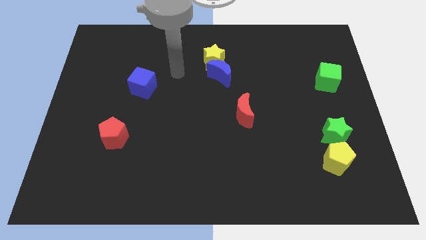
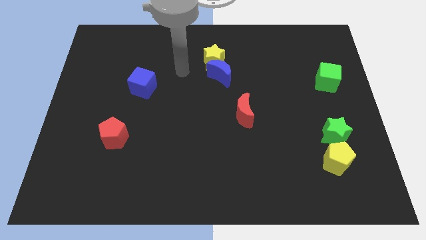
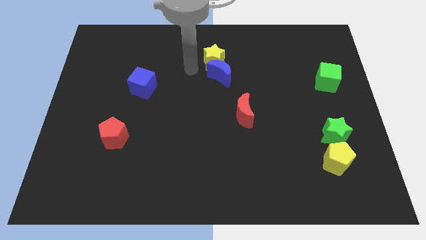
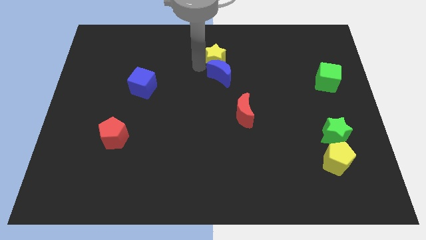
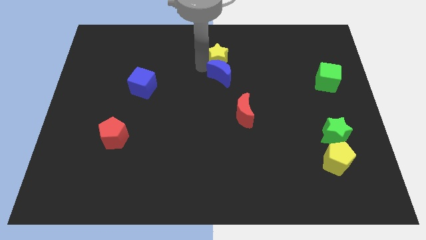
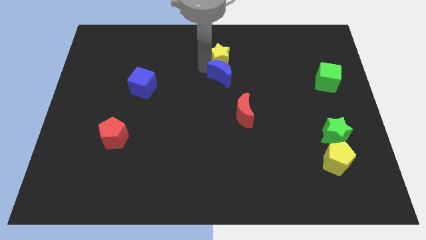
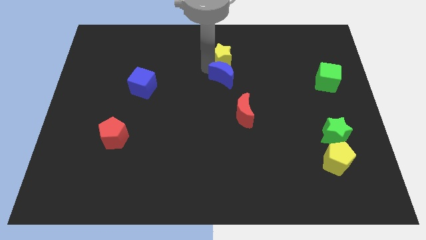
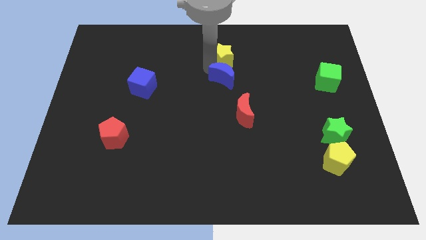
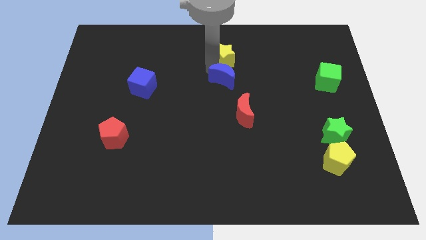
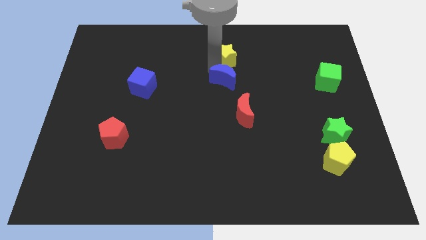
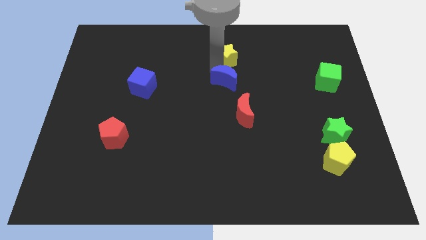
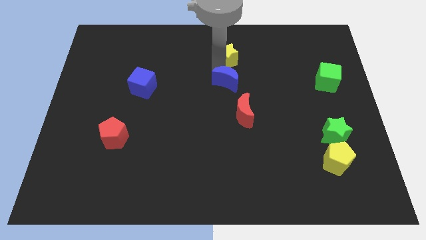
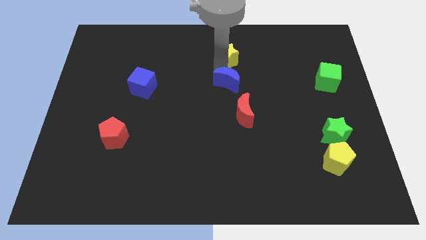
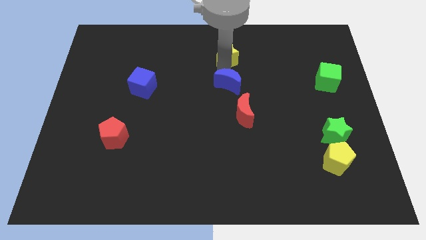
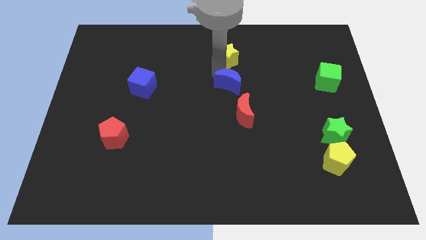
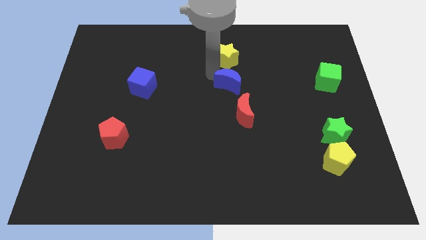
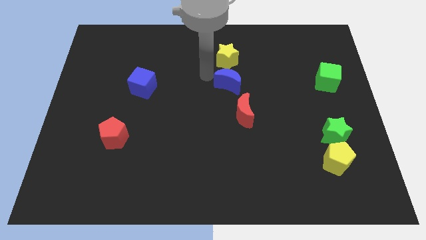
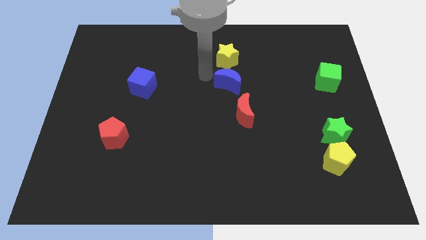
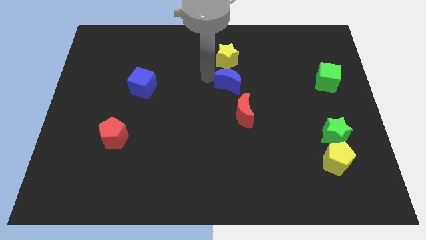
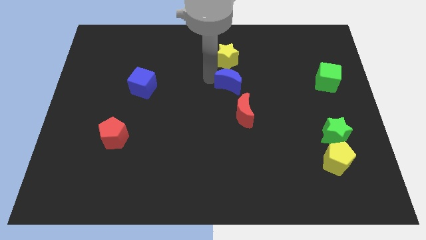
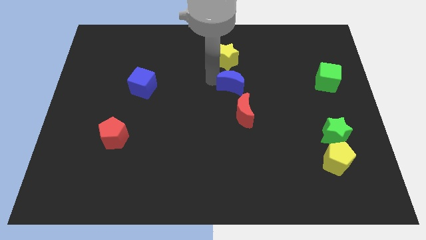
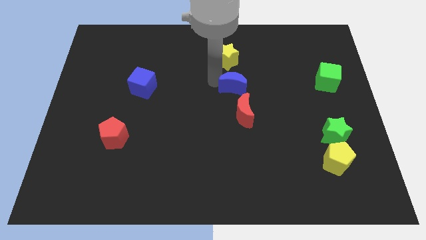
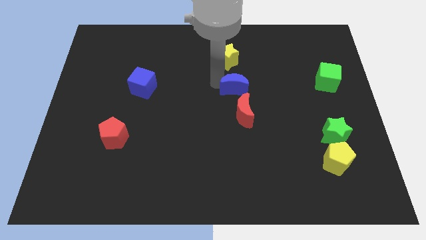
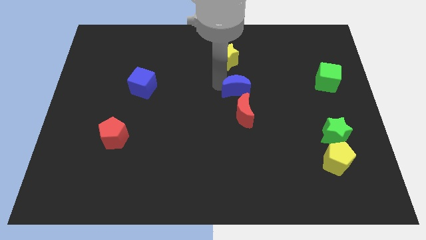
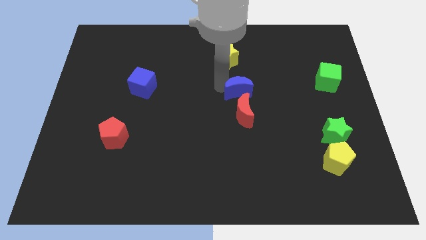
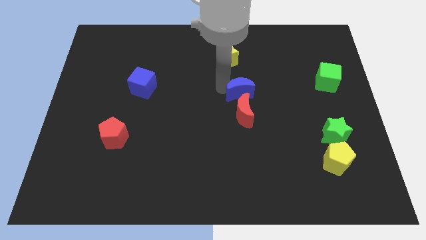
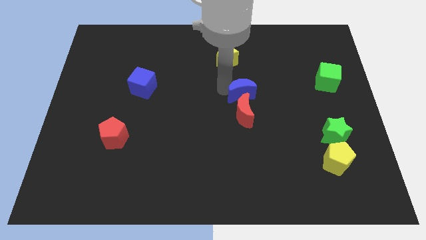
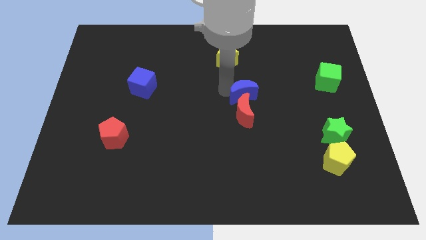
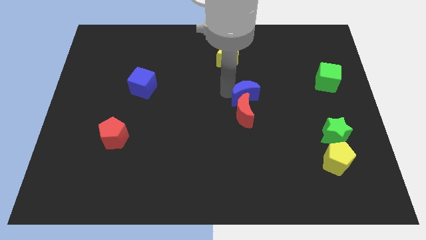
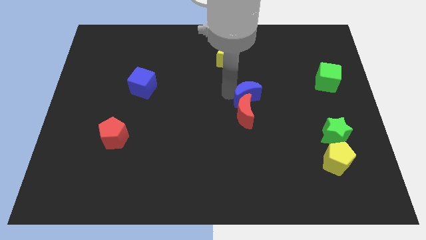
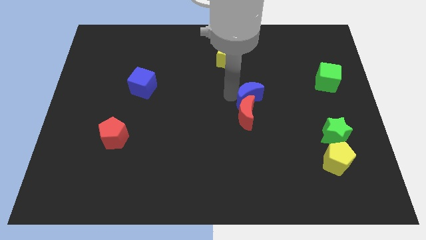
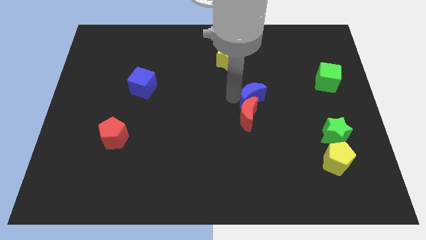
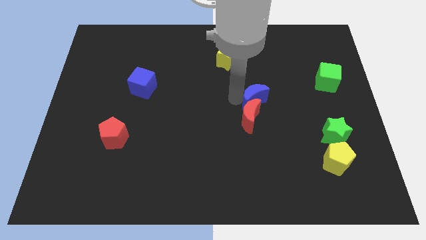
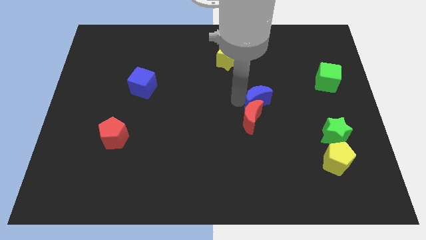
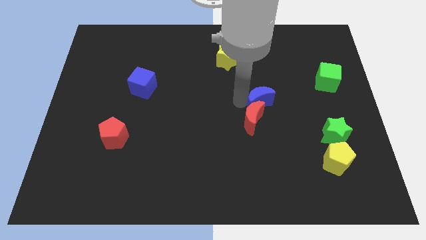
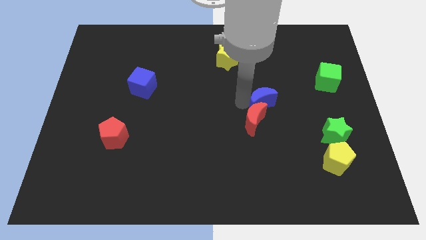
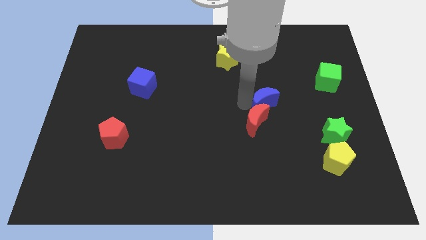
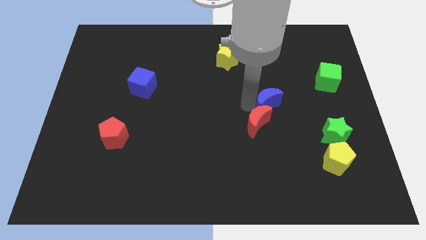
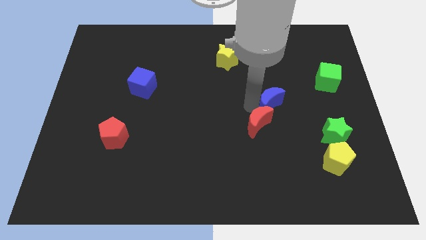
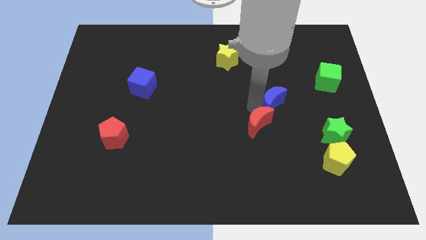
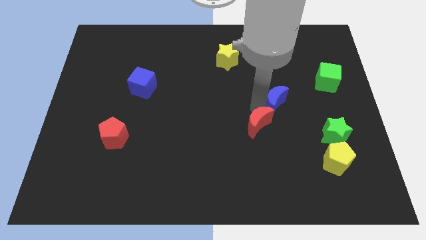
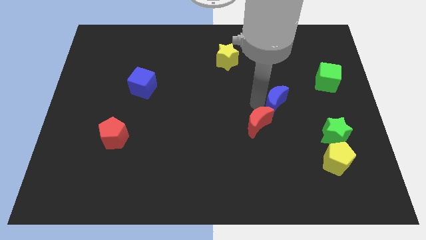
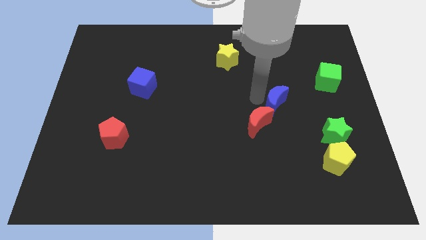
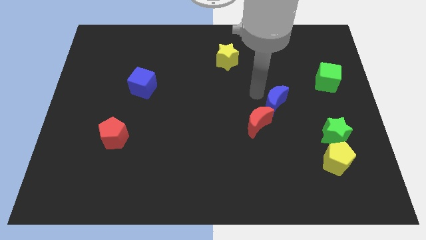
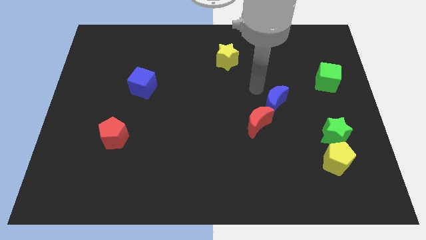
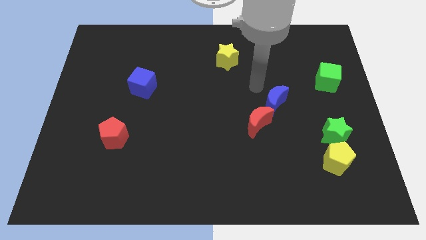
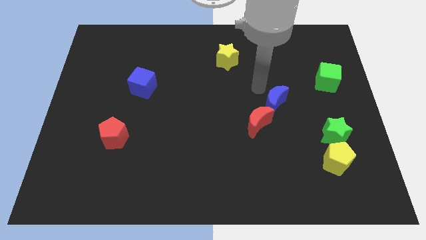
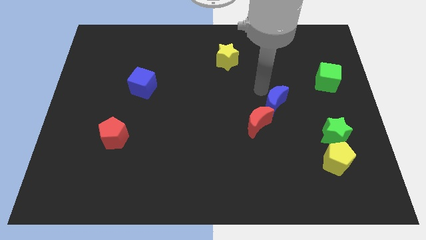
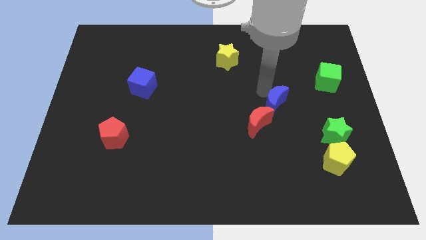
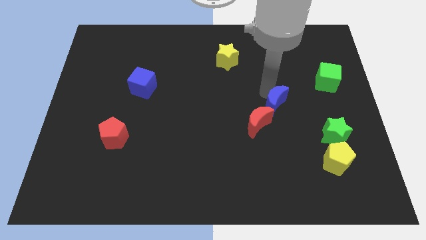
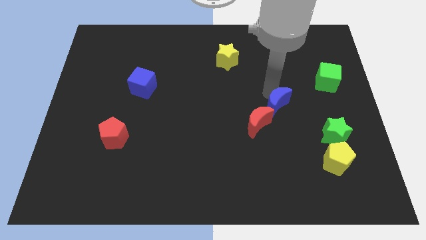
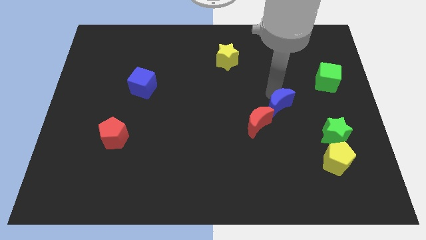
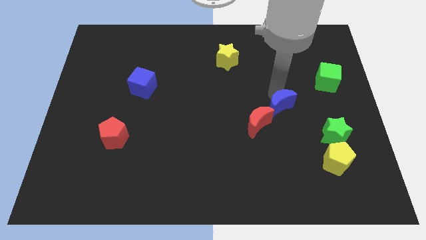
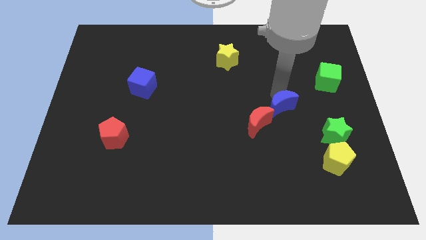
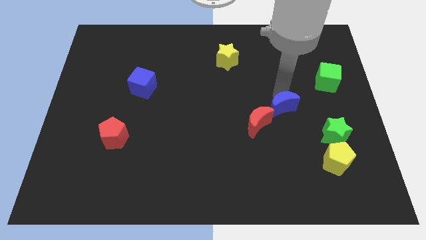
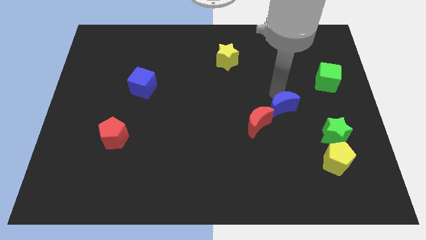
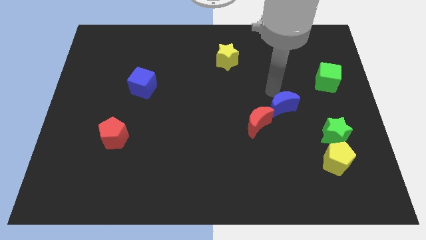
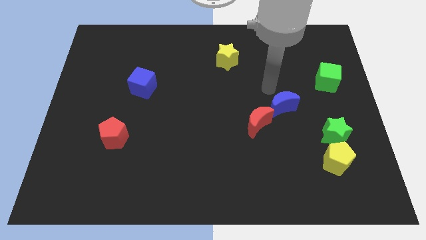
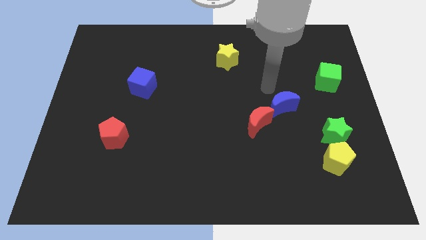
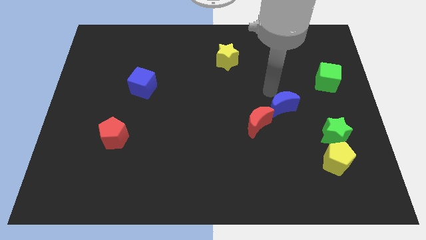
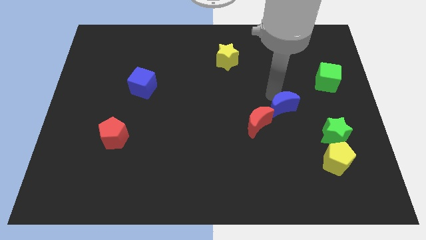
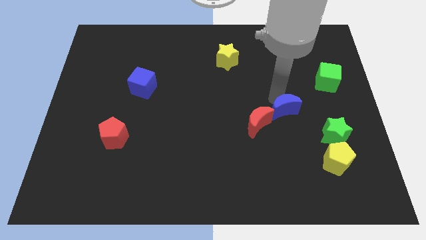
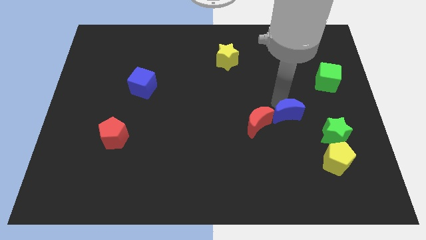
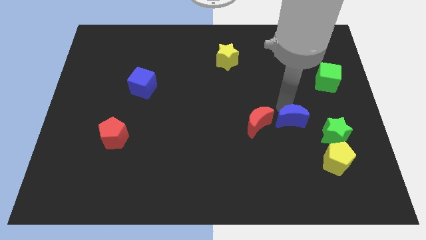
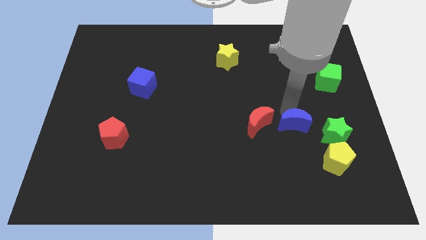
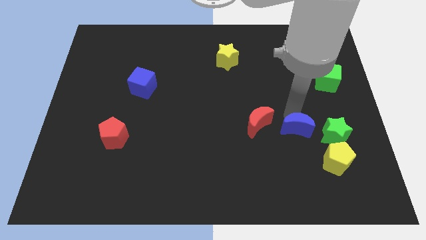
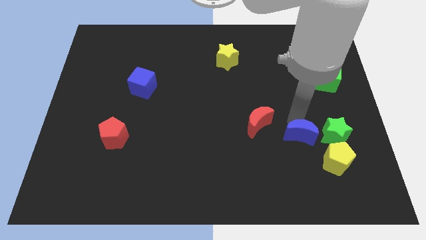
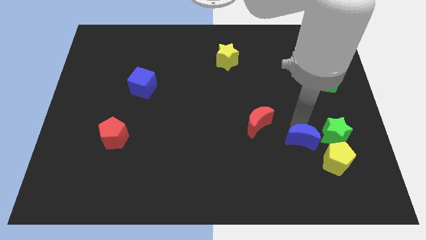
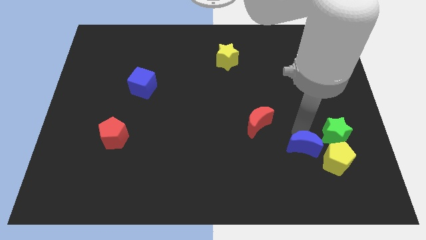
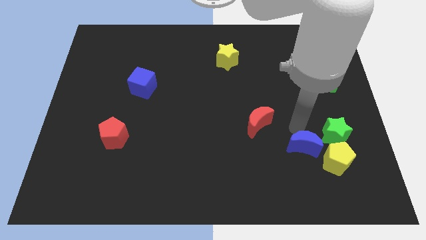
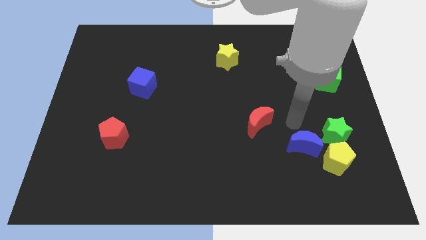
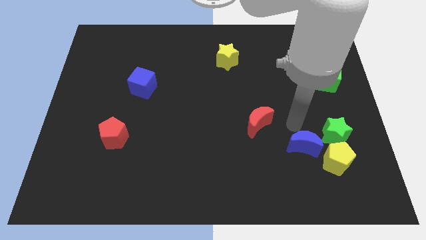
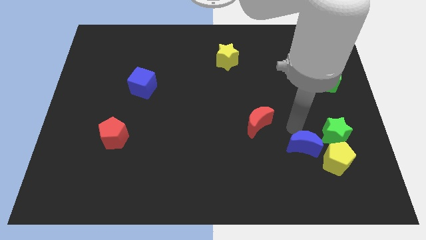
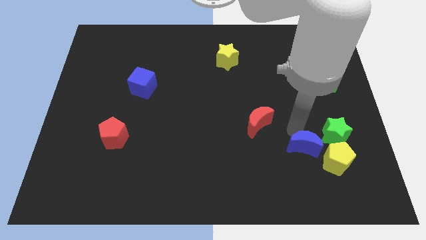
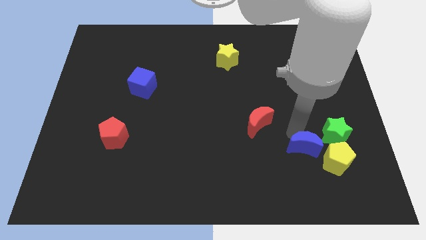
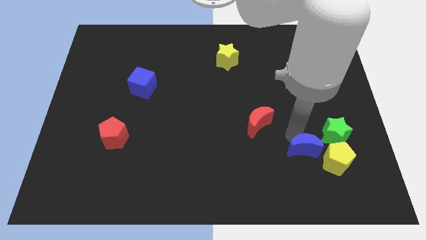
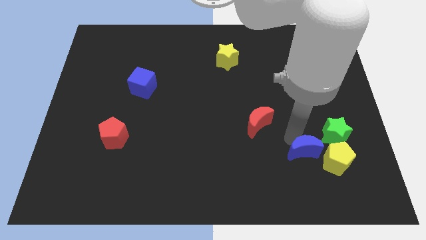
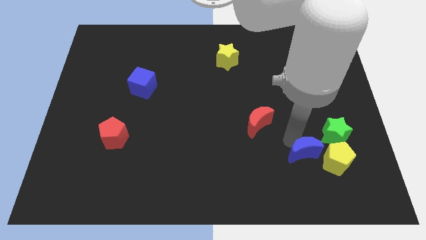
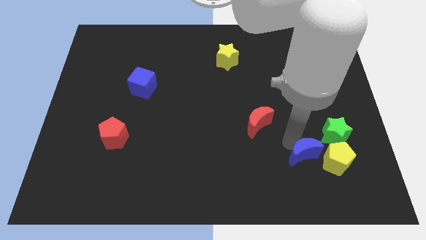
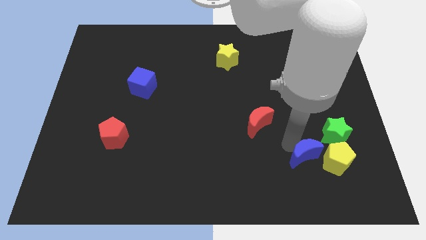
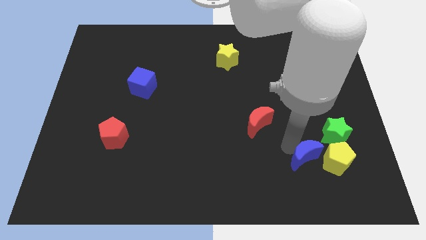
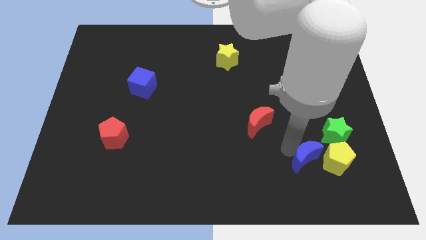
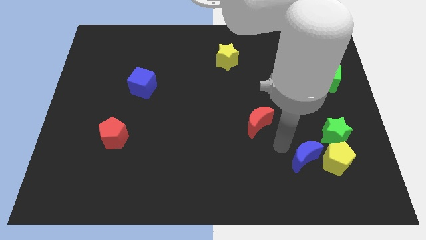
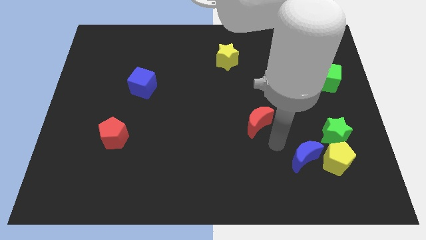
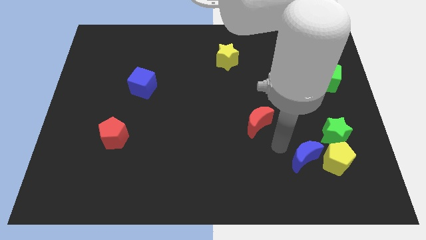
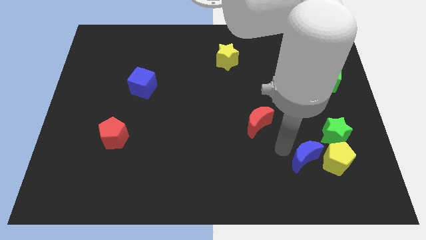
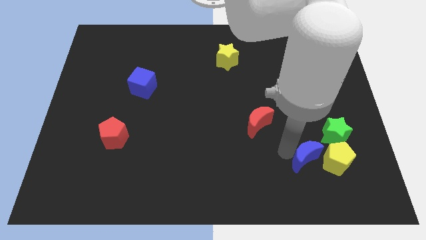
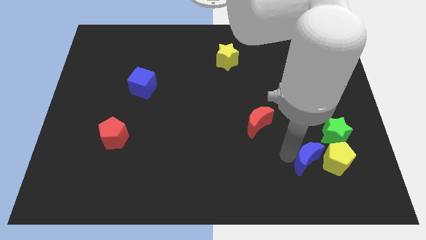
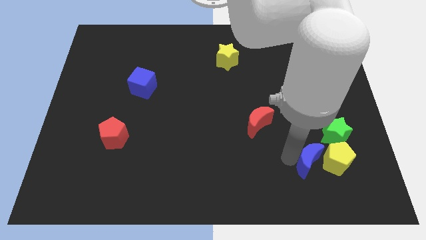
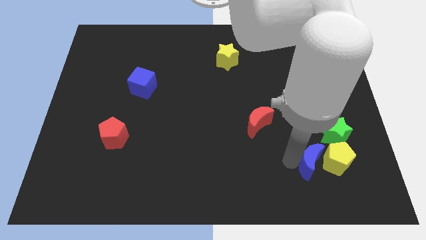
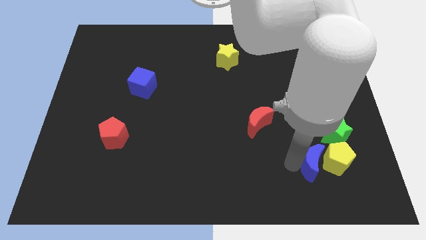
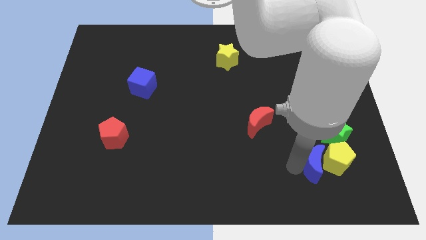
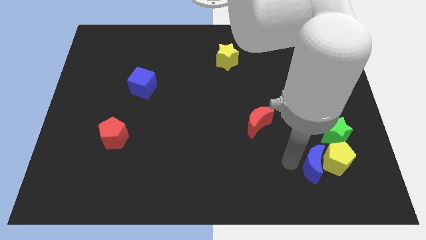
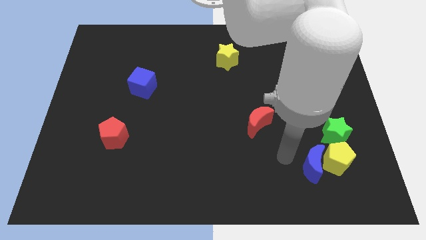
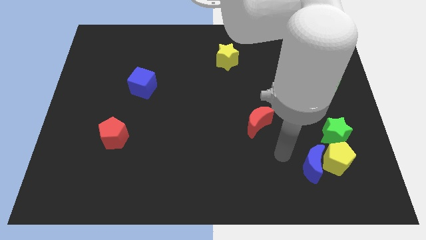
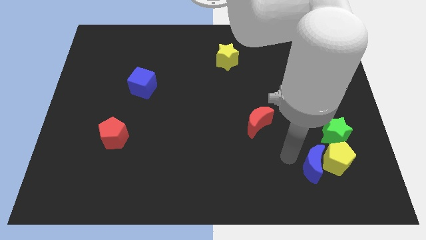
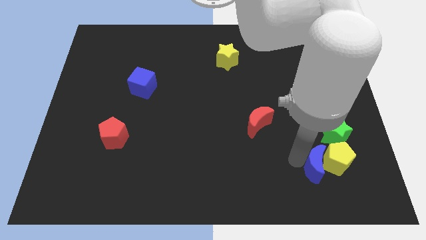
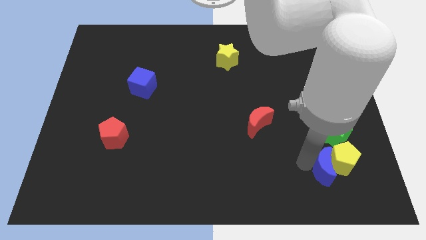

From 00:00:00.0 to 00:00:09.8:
slide the blue moon to the bottom of the green star
